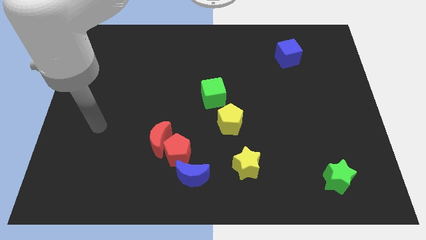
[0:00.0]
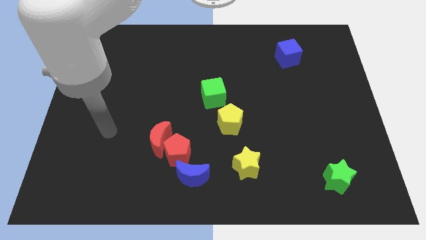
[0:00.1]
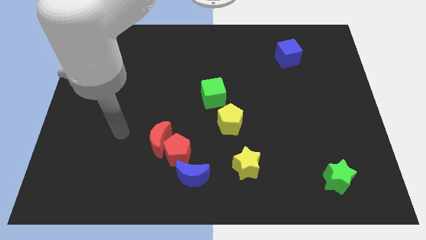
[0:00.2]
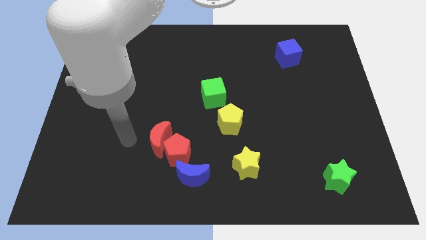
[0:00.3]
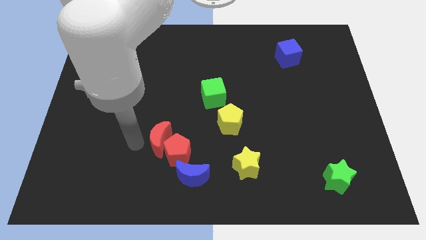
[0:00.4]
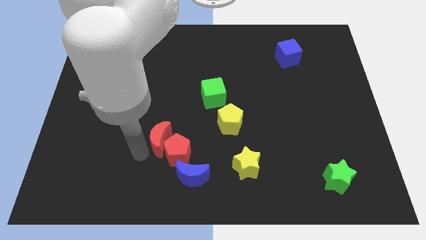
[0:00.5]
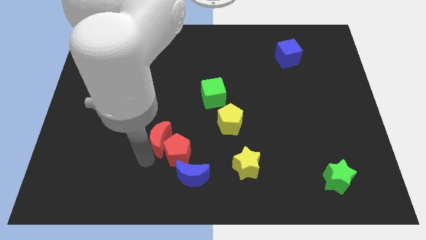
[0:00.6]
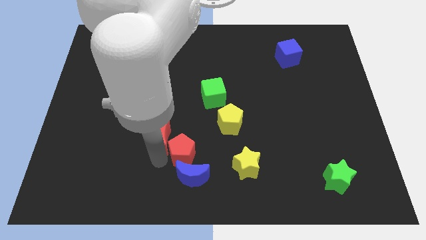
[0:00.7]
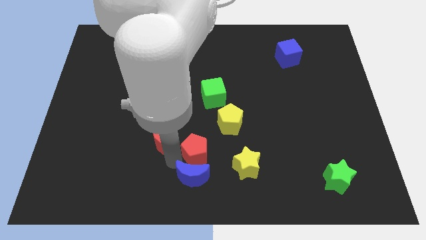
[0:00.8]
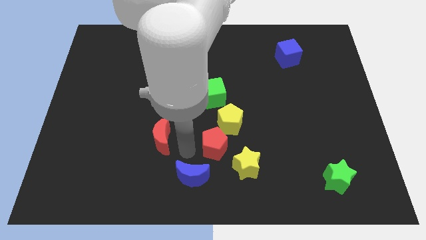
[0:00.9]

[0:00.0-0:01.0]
pull the red moon apart from the red pentagon

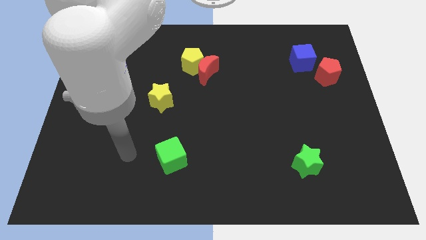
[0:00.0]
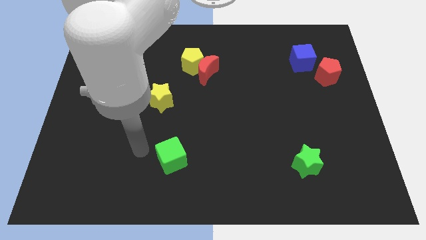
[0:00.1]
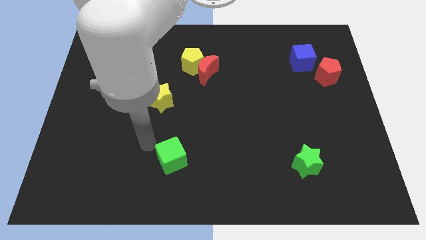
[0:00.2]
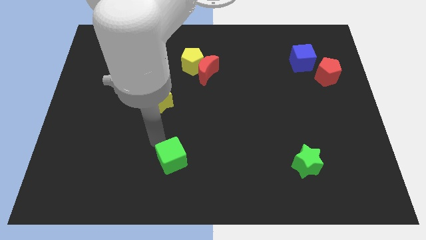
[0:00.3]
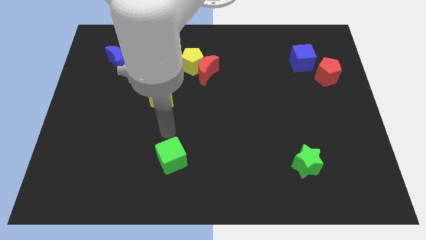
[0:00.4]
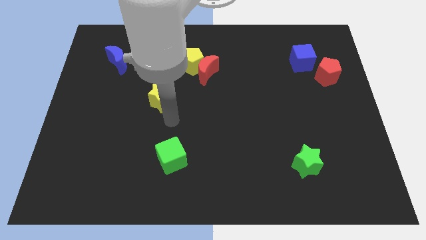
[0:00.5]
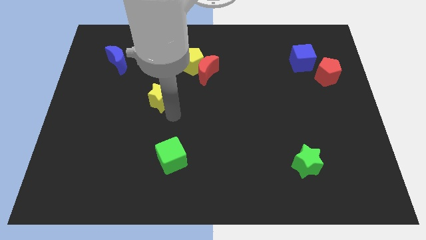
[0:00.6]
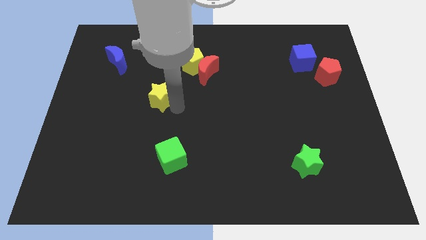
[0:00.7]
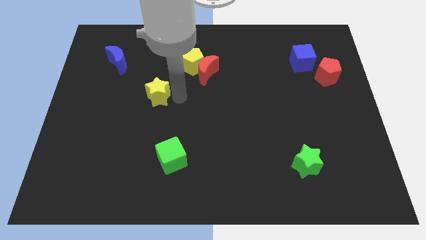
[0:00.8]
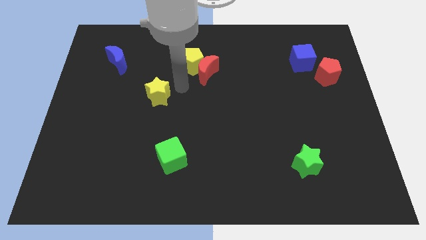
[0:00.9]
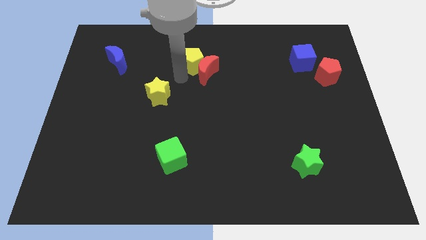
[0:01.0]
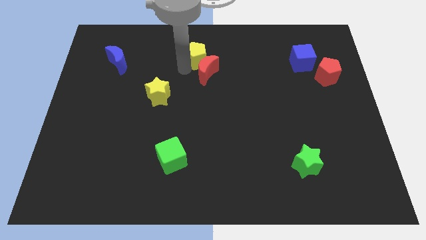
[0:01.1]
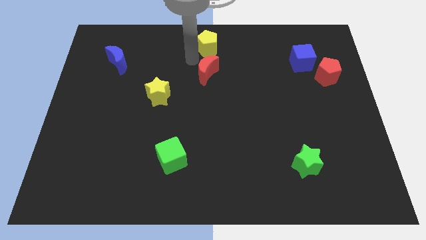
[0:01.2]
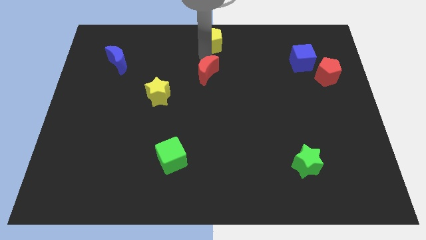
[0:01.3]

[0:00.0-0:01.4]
separate the red moon from the yellow pentagon

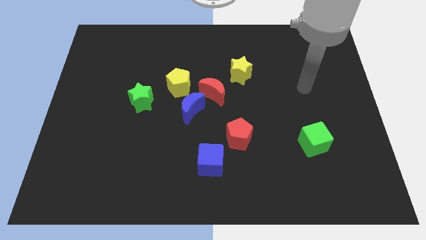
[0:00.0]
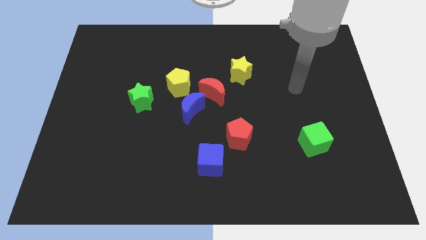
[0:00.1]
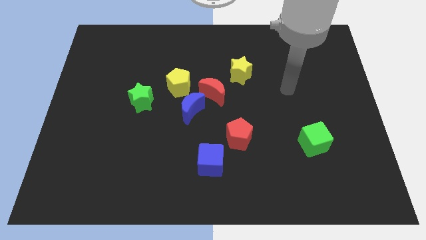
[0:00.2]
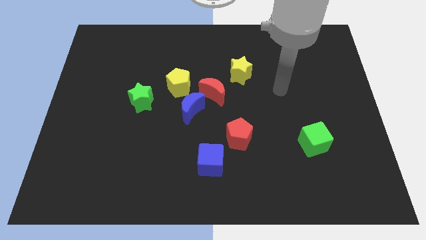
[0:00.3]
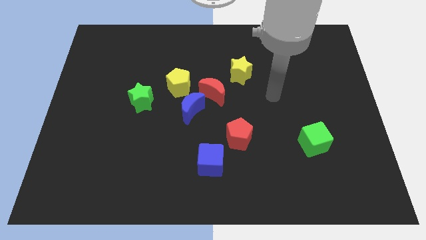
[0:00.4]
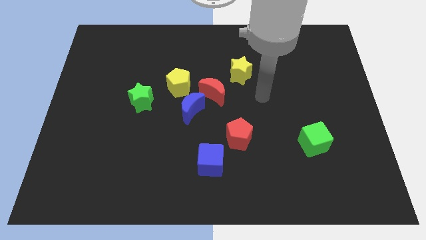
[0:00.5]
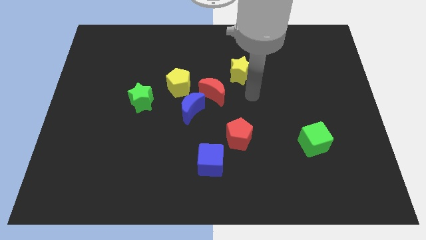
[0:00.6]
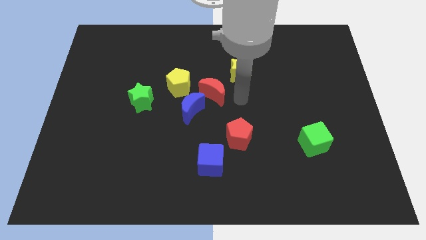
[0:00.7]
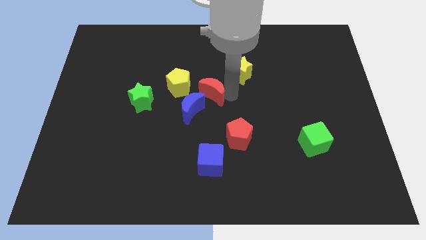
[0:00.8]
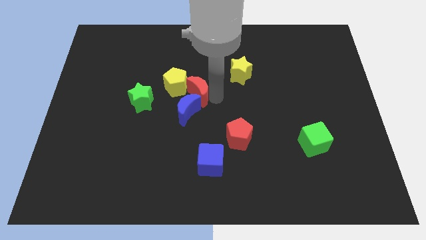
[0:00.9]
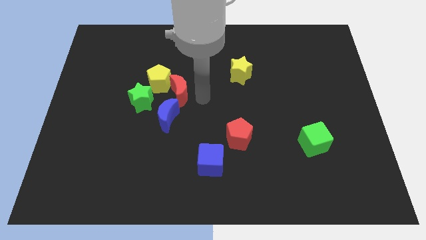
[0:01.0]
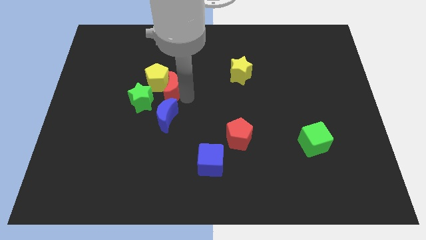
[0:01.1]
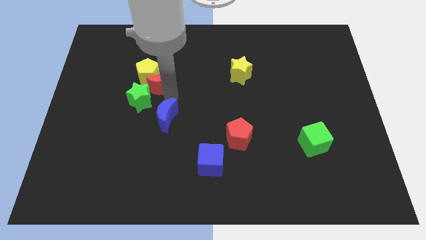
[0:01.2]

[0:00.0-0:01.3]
separate the blue moon from the red moon and yellow pentagon

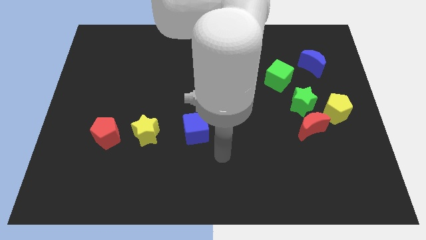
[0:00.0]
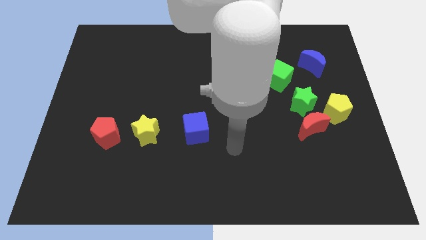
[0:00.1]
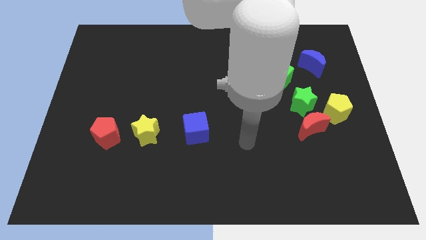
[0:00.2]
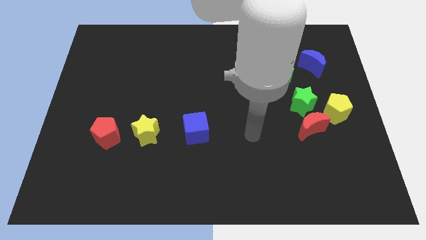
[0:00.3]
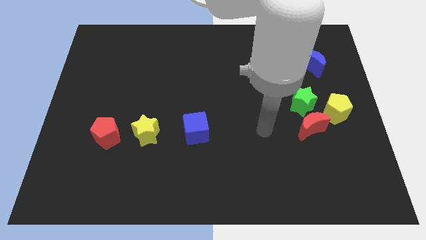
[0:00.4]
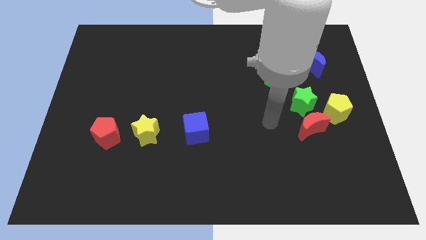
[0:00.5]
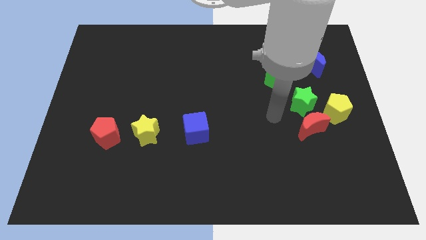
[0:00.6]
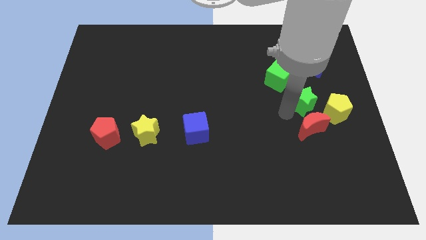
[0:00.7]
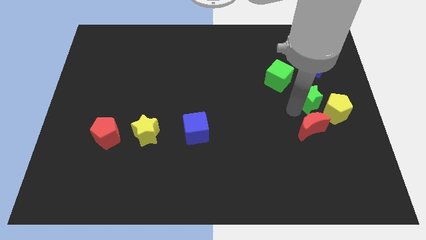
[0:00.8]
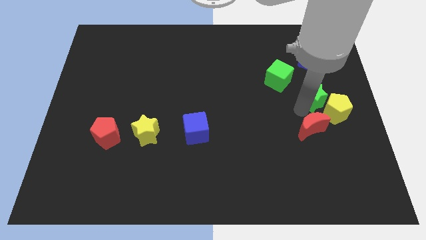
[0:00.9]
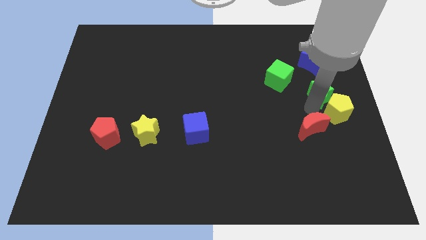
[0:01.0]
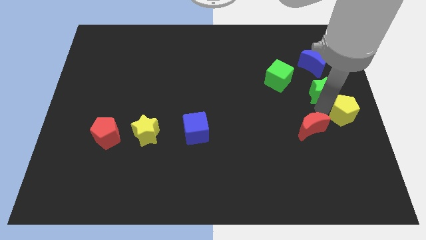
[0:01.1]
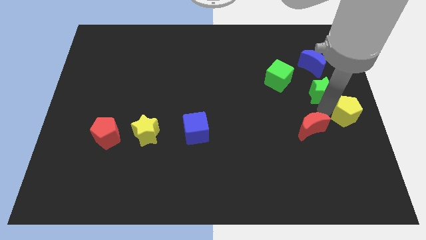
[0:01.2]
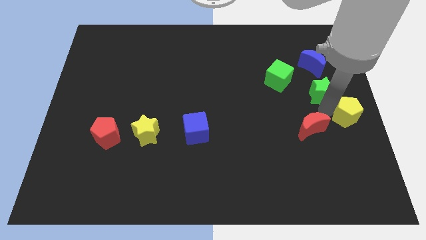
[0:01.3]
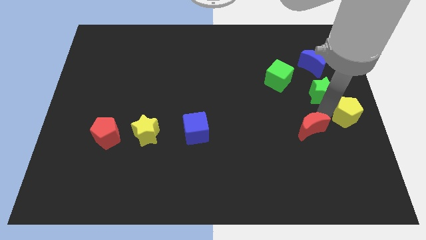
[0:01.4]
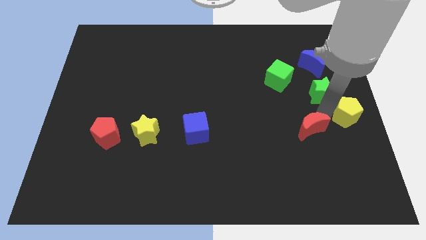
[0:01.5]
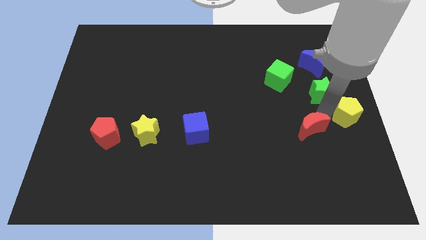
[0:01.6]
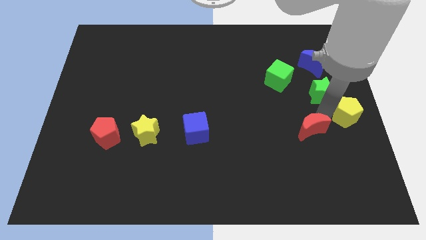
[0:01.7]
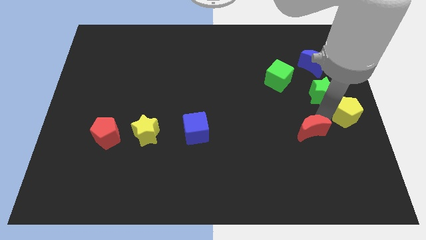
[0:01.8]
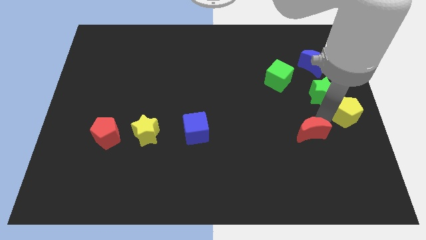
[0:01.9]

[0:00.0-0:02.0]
move the red moon away from the green star and yellow pentagon

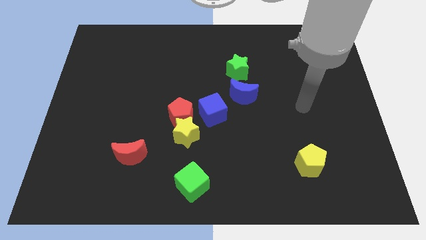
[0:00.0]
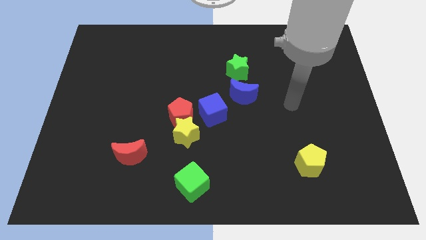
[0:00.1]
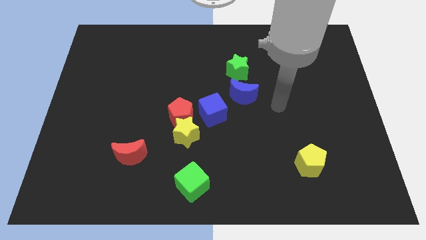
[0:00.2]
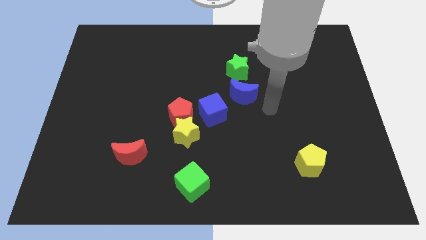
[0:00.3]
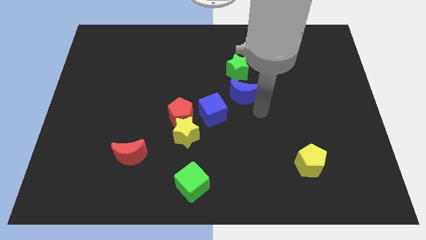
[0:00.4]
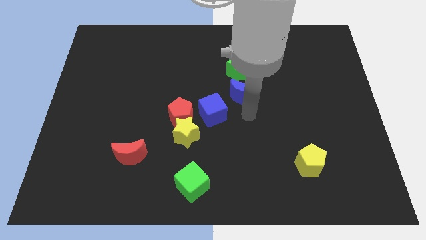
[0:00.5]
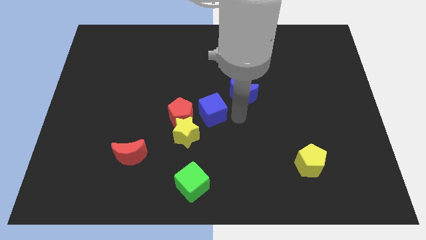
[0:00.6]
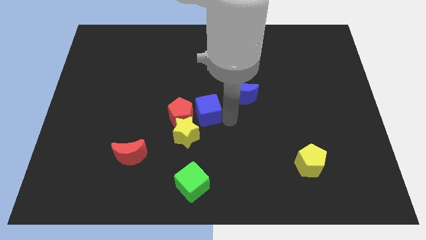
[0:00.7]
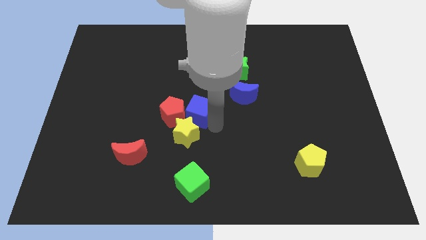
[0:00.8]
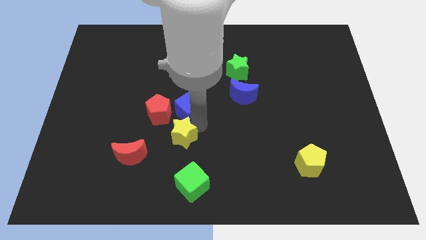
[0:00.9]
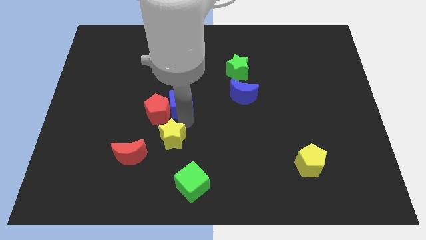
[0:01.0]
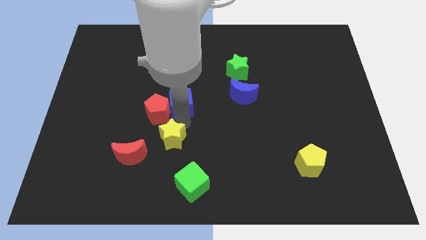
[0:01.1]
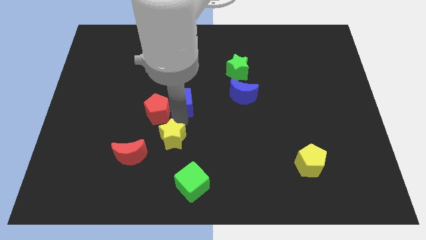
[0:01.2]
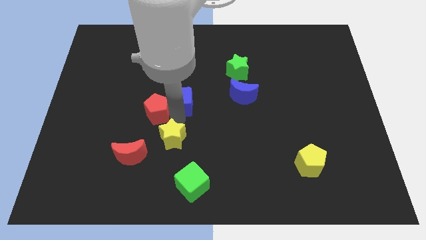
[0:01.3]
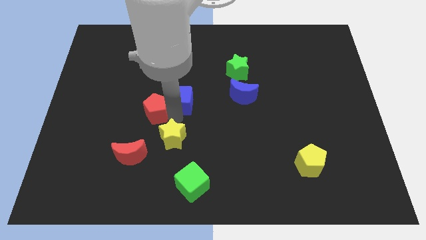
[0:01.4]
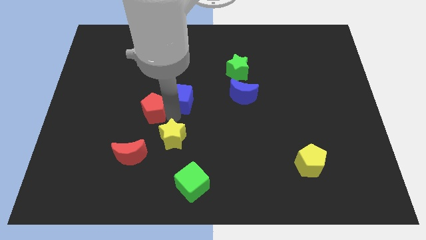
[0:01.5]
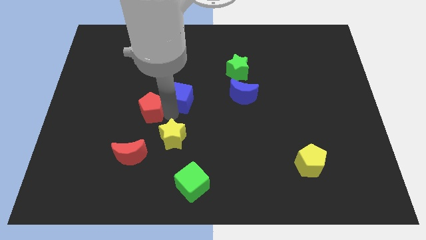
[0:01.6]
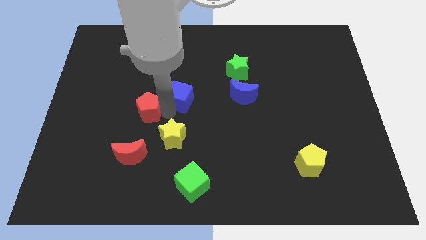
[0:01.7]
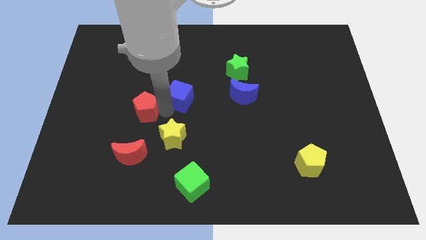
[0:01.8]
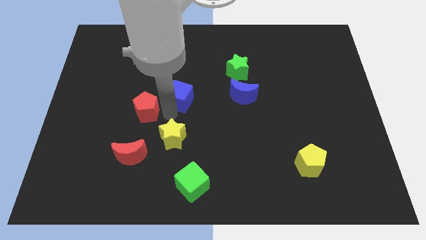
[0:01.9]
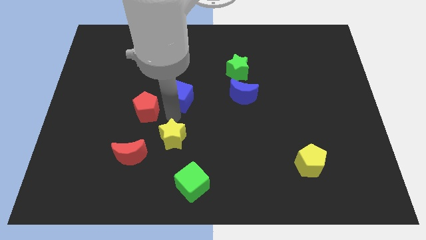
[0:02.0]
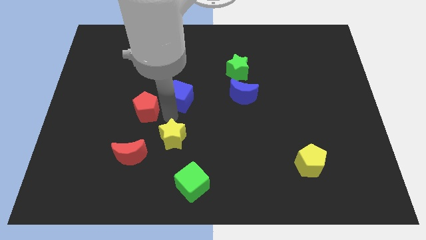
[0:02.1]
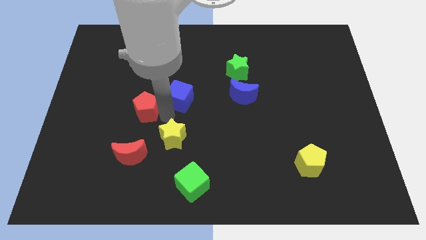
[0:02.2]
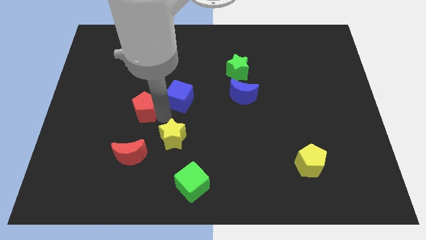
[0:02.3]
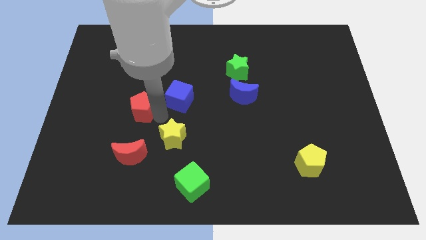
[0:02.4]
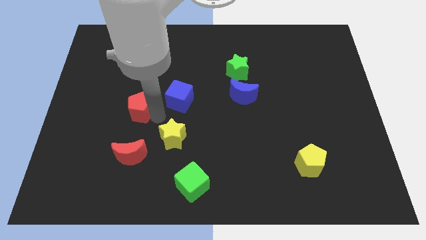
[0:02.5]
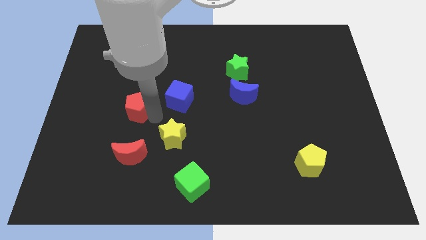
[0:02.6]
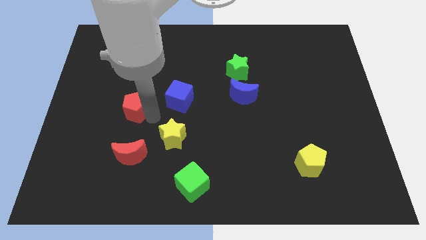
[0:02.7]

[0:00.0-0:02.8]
separate the red pentagon from the yellow star and blue cube

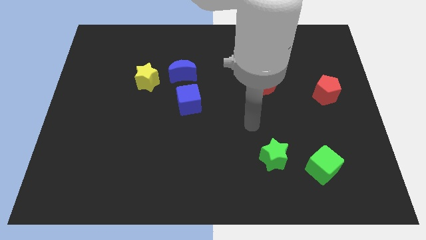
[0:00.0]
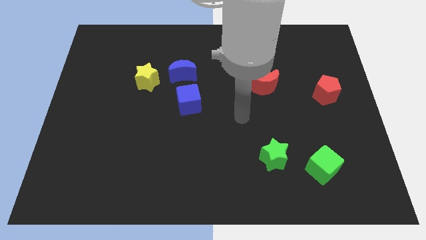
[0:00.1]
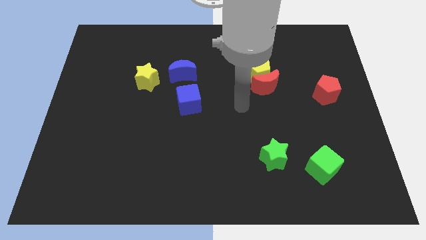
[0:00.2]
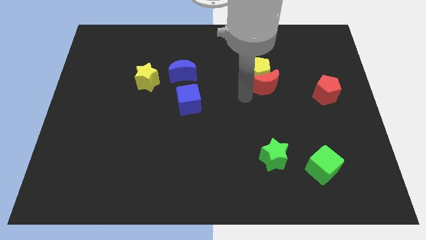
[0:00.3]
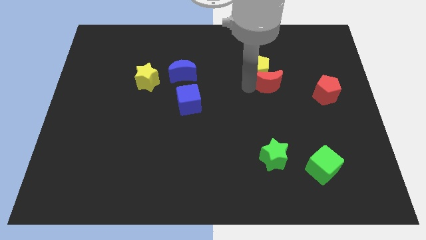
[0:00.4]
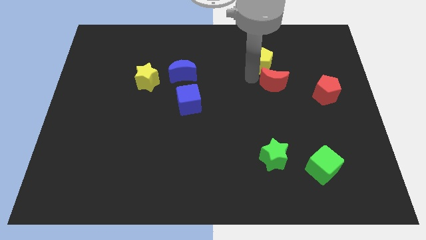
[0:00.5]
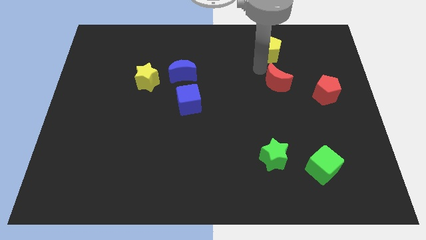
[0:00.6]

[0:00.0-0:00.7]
pull the red moon apart from the yellow pentagon
